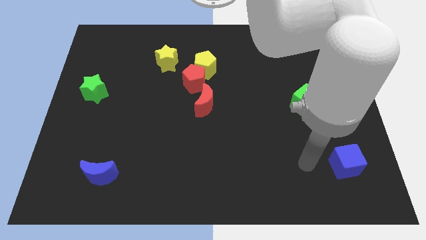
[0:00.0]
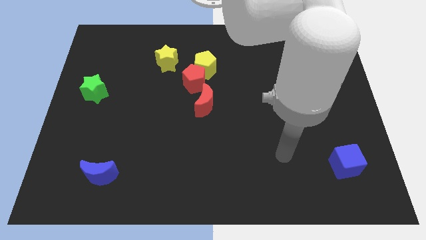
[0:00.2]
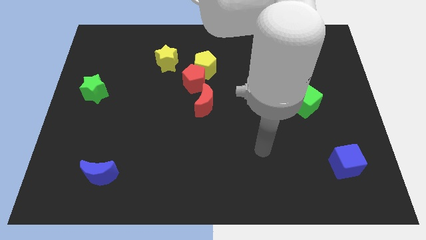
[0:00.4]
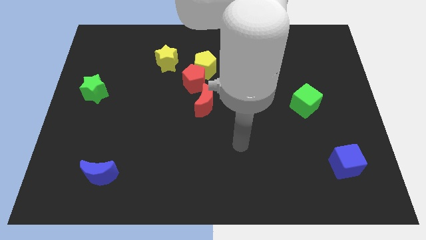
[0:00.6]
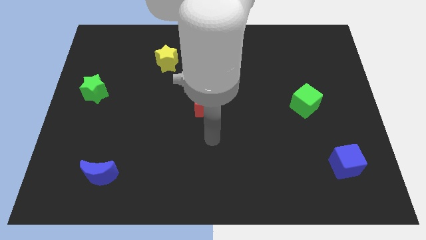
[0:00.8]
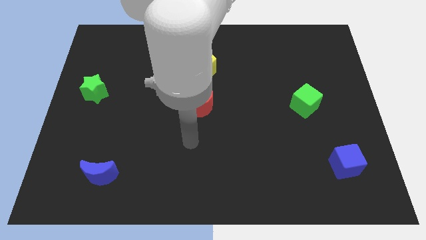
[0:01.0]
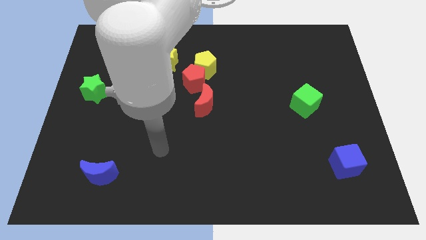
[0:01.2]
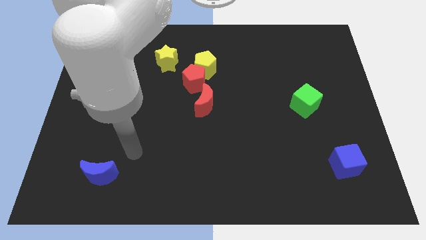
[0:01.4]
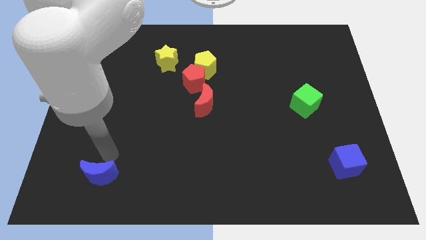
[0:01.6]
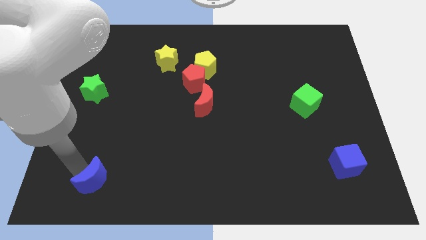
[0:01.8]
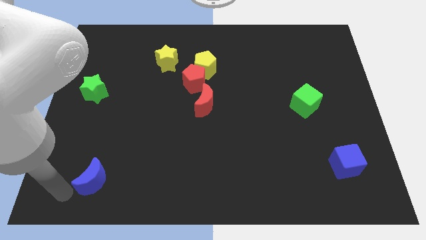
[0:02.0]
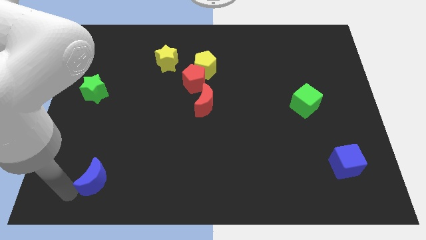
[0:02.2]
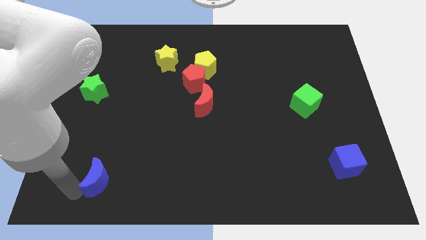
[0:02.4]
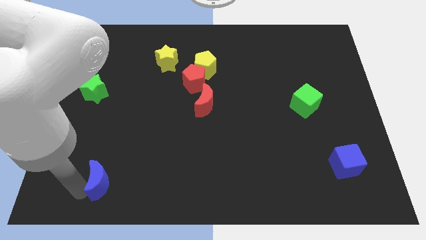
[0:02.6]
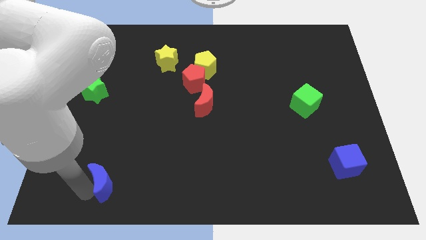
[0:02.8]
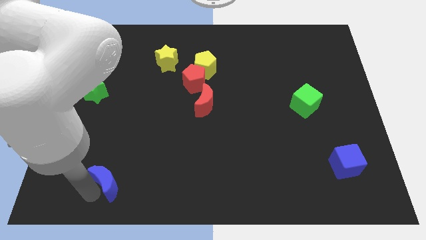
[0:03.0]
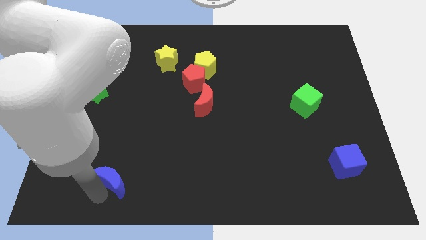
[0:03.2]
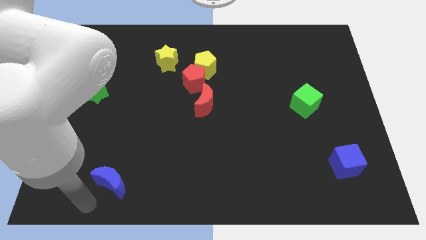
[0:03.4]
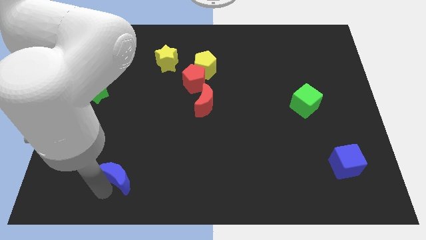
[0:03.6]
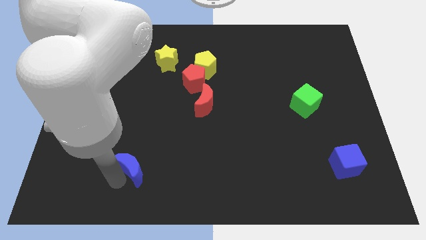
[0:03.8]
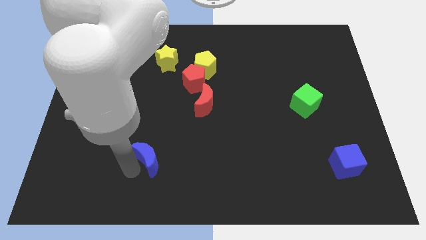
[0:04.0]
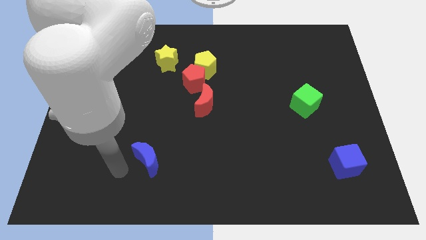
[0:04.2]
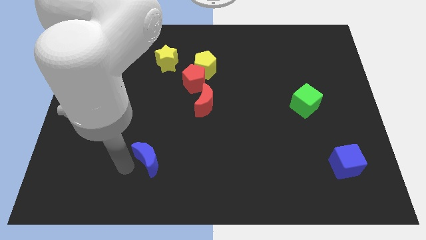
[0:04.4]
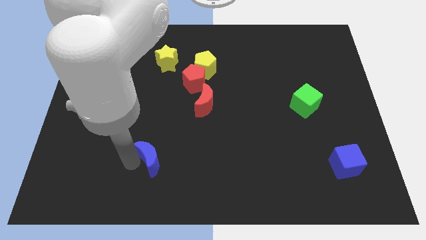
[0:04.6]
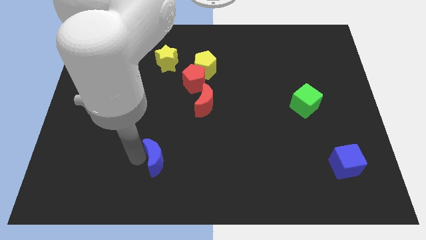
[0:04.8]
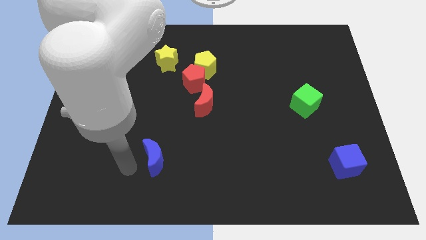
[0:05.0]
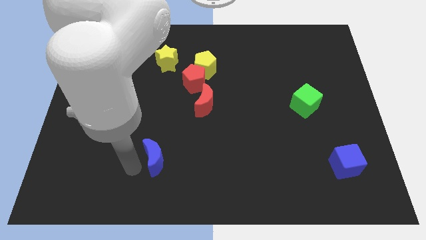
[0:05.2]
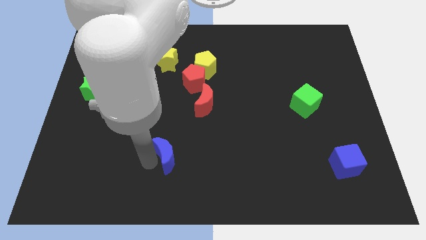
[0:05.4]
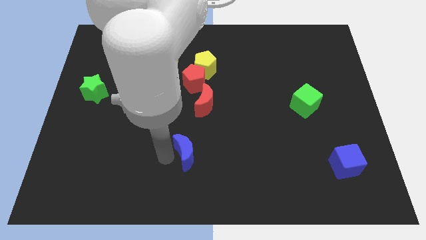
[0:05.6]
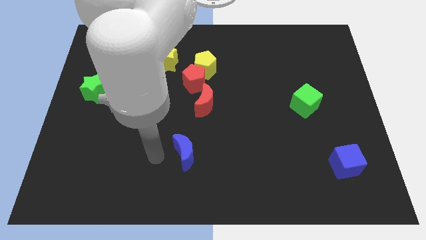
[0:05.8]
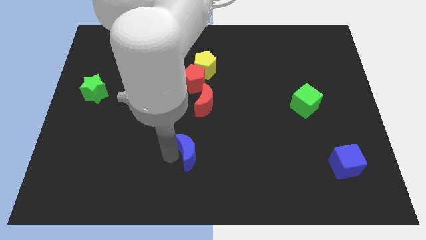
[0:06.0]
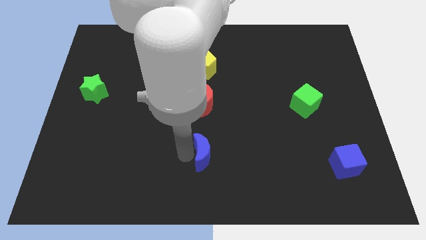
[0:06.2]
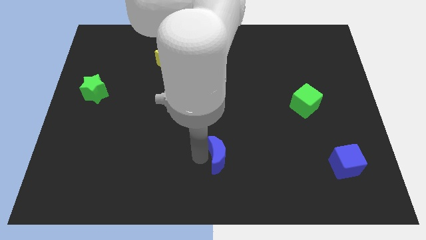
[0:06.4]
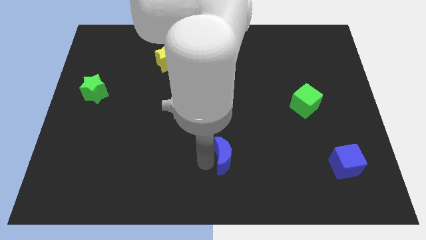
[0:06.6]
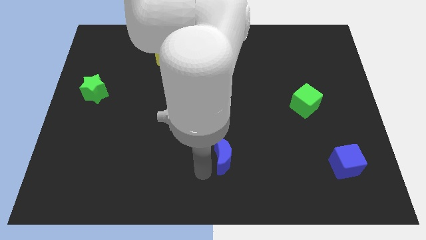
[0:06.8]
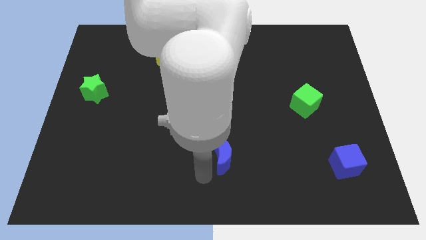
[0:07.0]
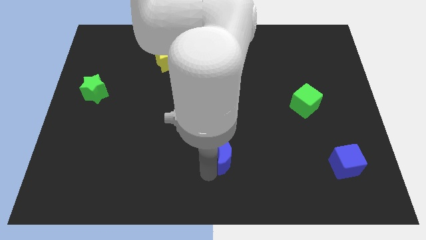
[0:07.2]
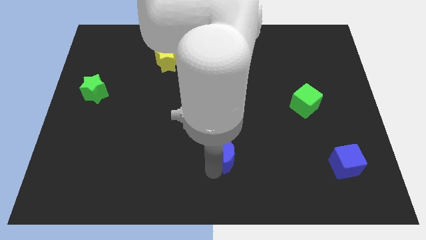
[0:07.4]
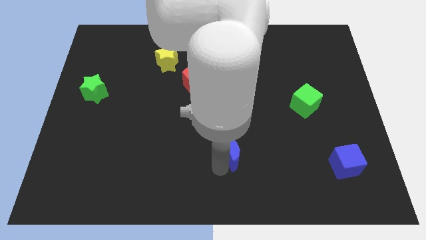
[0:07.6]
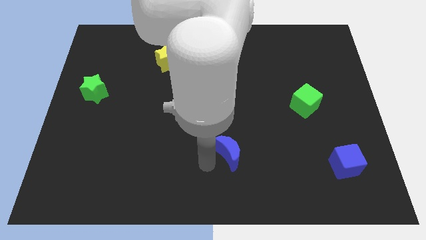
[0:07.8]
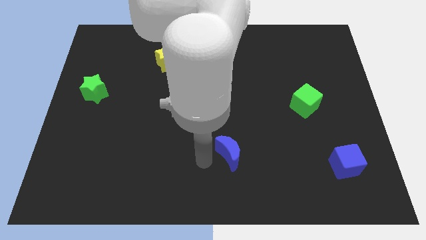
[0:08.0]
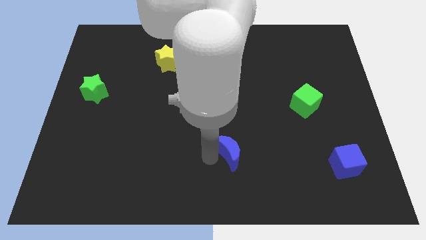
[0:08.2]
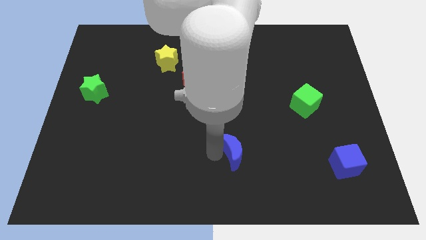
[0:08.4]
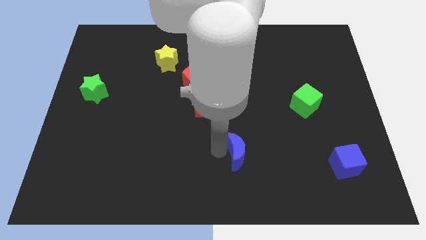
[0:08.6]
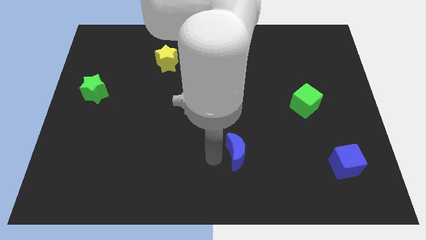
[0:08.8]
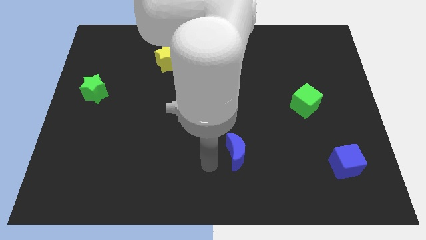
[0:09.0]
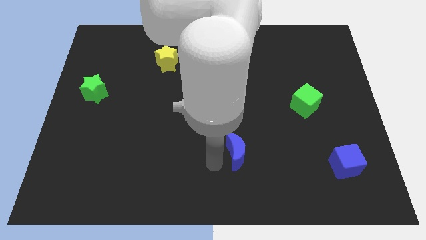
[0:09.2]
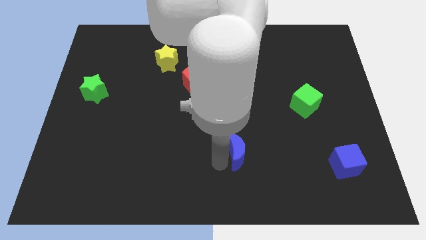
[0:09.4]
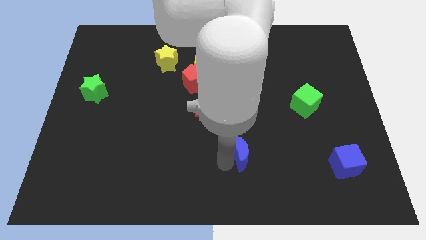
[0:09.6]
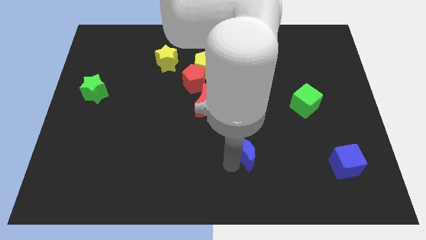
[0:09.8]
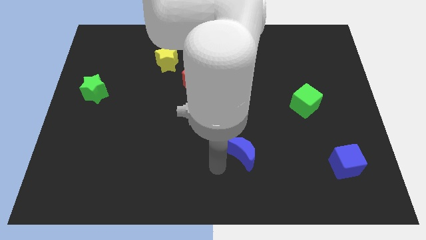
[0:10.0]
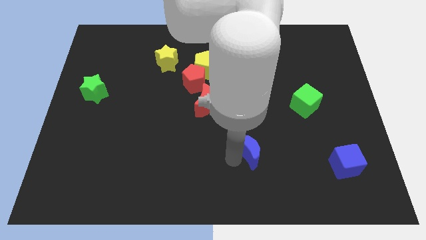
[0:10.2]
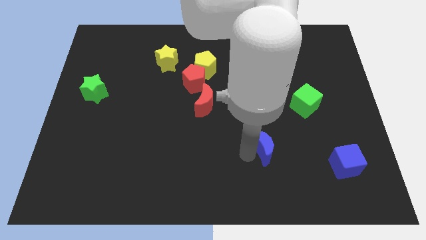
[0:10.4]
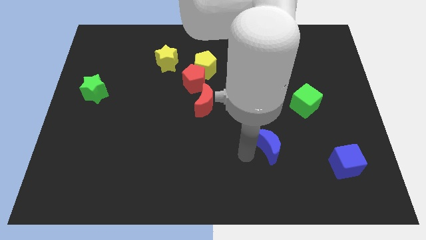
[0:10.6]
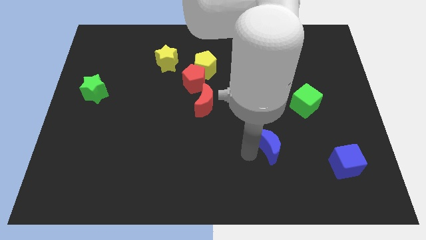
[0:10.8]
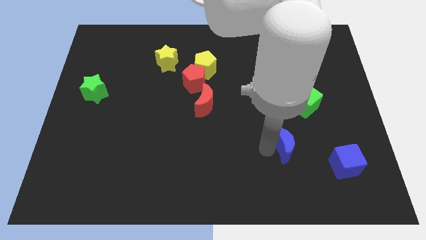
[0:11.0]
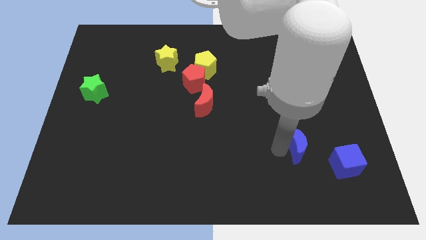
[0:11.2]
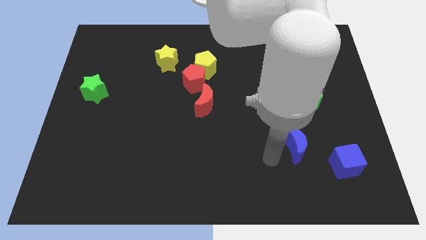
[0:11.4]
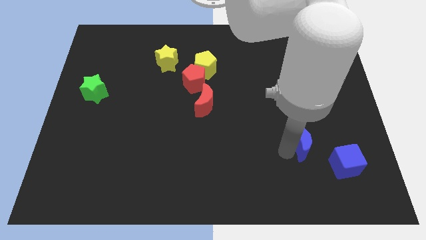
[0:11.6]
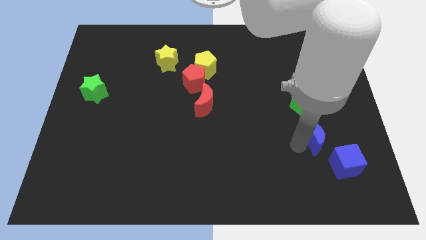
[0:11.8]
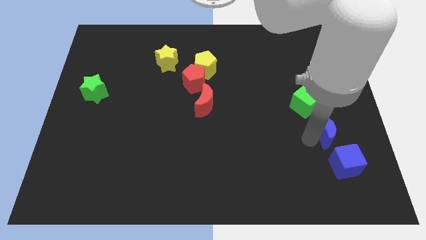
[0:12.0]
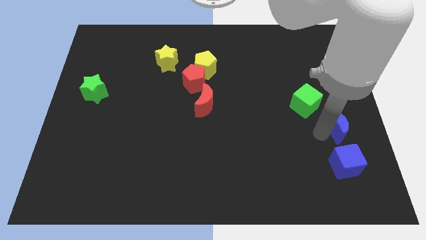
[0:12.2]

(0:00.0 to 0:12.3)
push the blue moon to the right side of the board

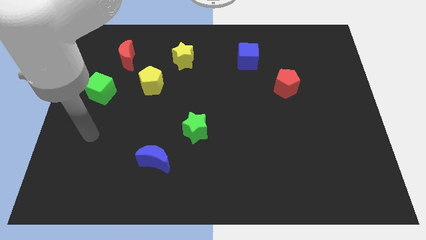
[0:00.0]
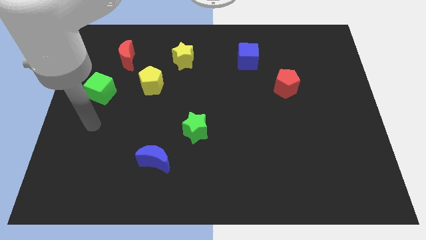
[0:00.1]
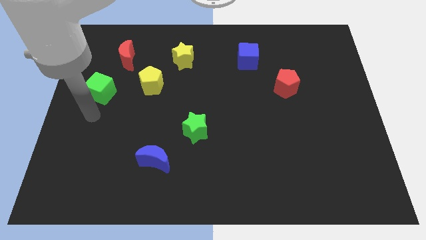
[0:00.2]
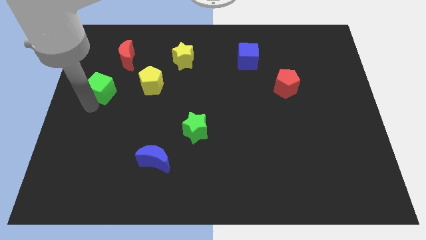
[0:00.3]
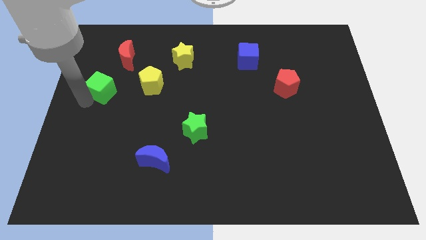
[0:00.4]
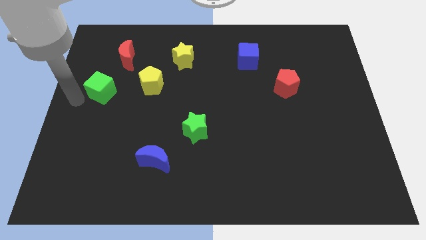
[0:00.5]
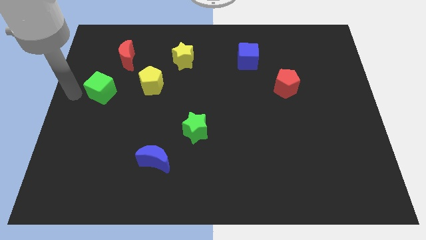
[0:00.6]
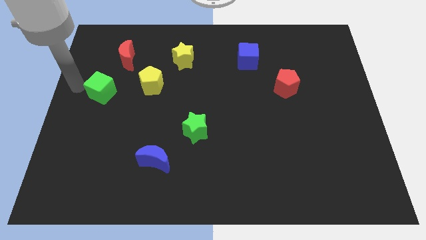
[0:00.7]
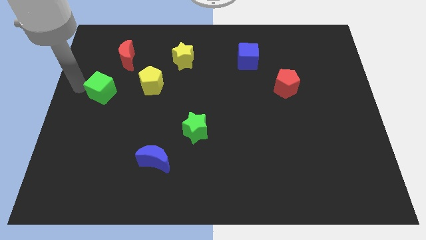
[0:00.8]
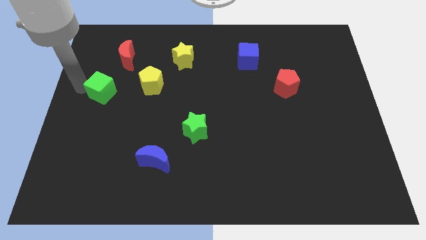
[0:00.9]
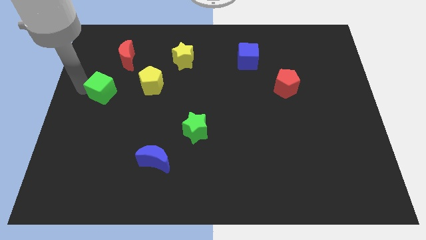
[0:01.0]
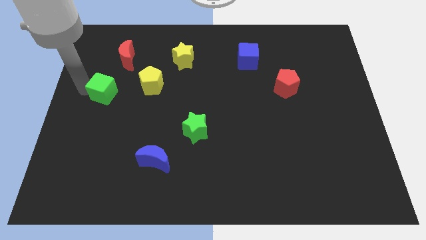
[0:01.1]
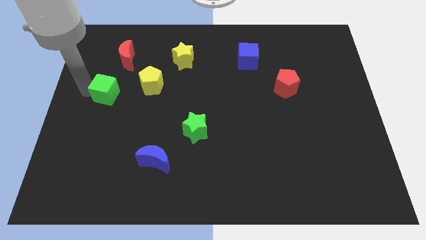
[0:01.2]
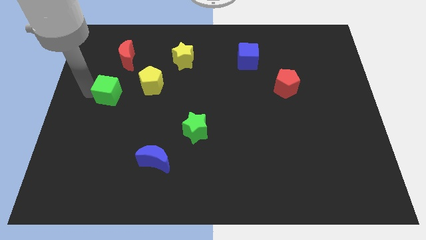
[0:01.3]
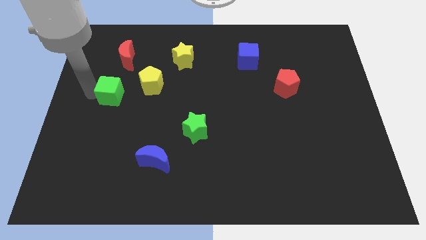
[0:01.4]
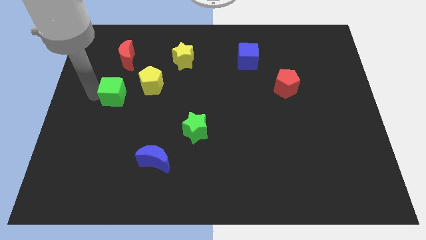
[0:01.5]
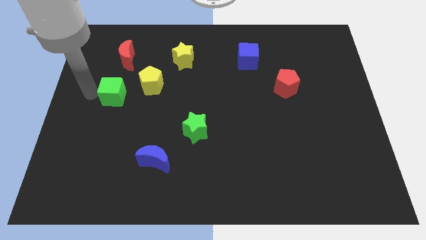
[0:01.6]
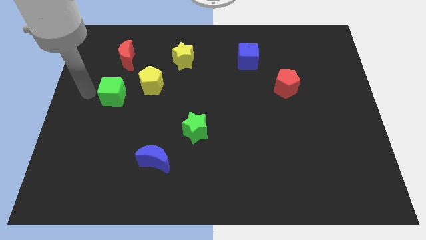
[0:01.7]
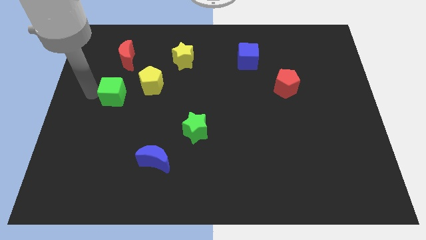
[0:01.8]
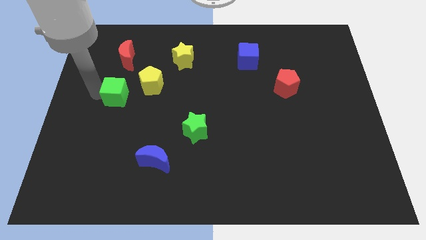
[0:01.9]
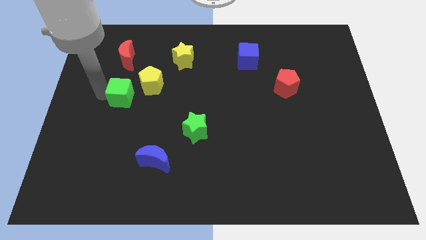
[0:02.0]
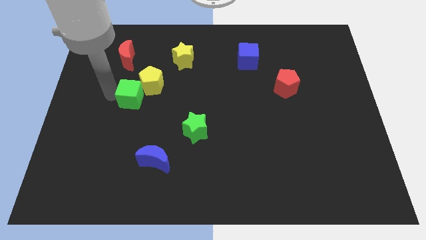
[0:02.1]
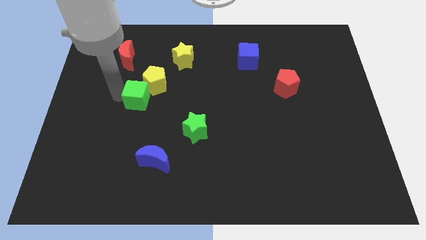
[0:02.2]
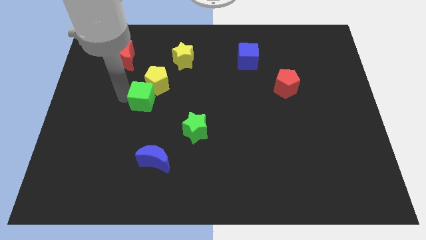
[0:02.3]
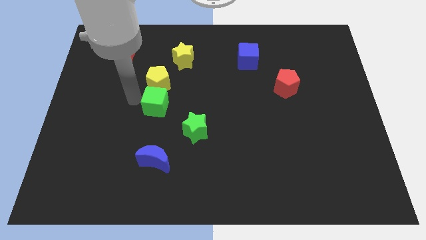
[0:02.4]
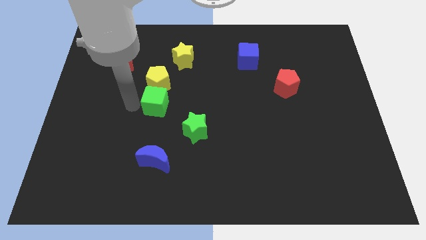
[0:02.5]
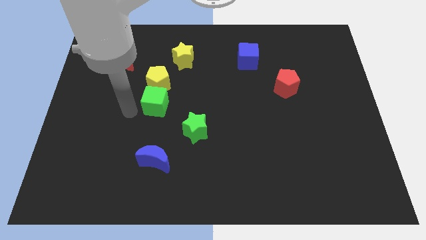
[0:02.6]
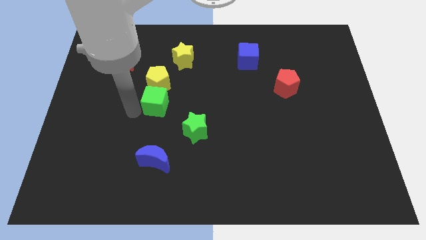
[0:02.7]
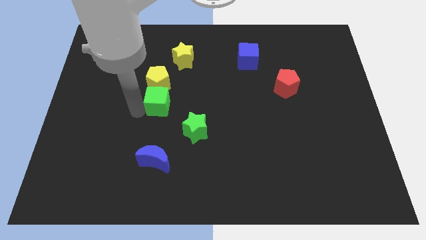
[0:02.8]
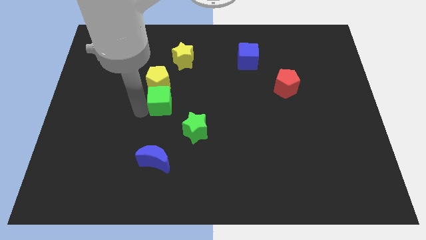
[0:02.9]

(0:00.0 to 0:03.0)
push the green cube to the center
